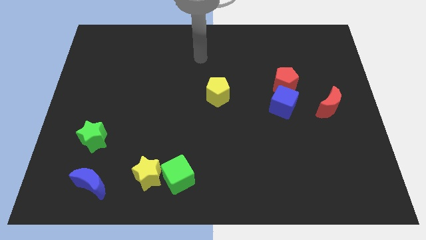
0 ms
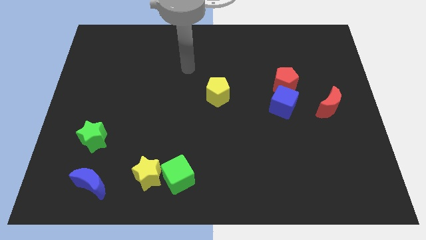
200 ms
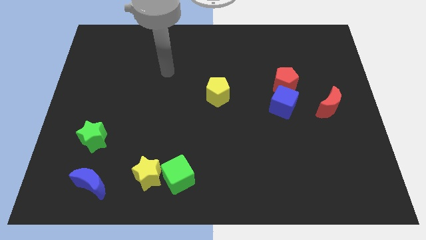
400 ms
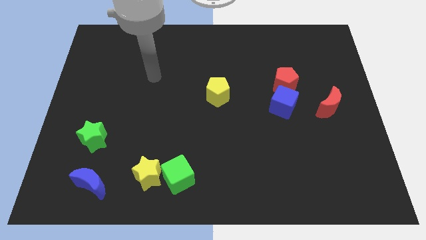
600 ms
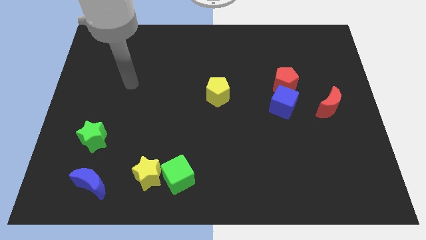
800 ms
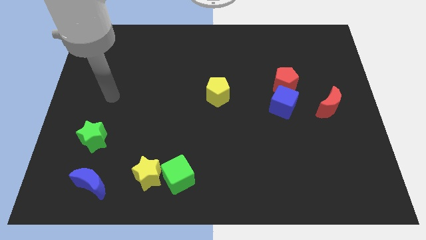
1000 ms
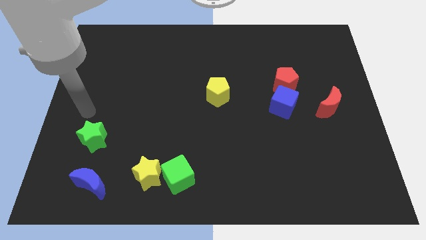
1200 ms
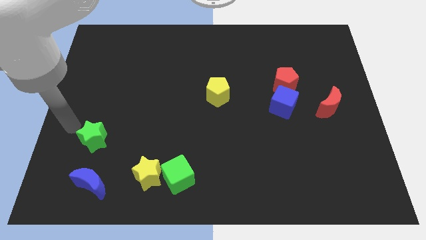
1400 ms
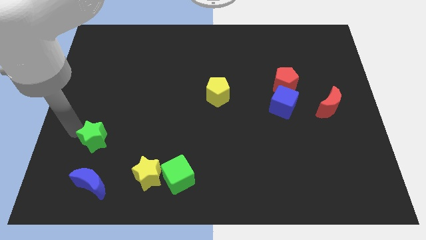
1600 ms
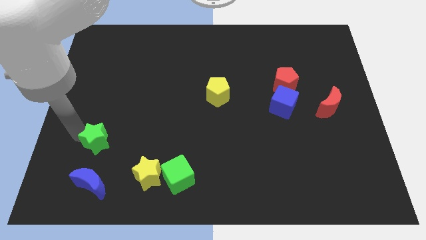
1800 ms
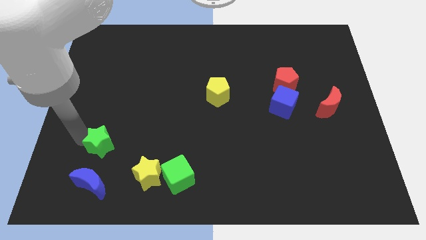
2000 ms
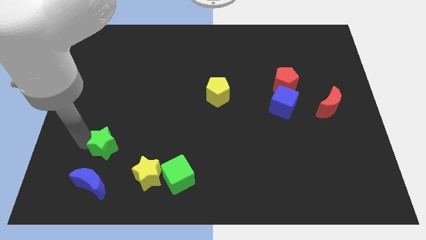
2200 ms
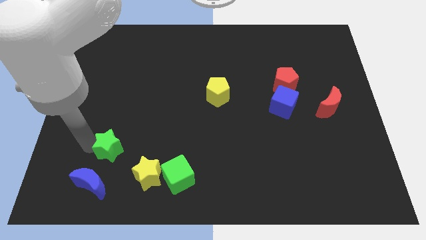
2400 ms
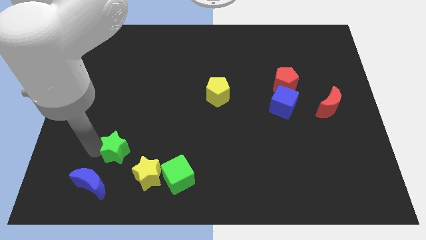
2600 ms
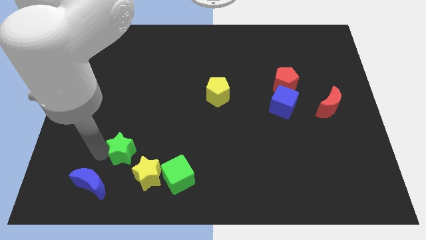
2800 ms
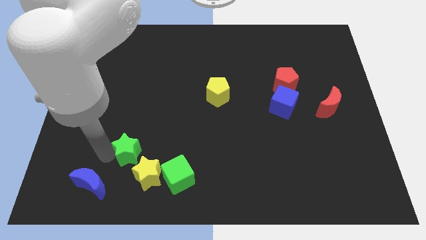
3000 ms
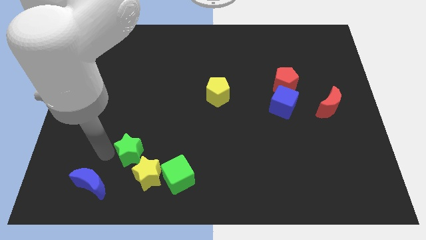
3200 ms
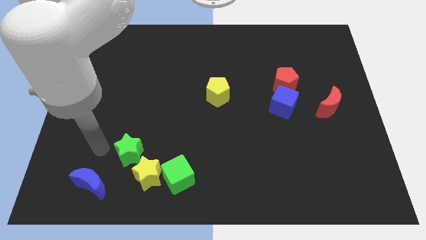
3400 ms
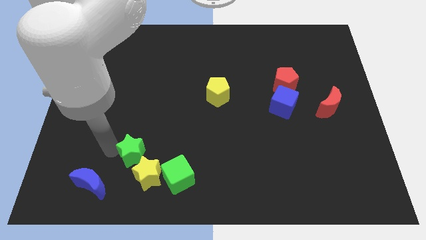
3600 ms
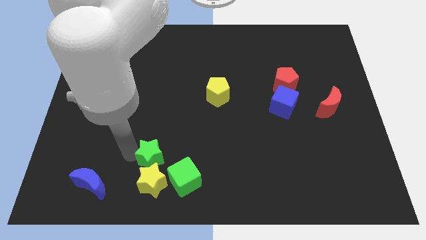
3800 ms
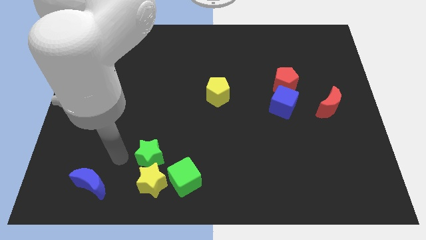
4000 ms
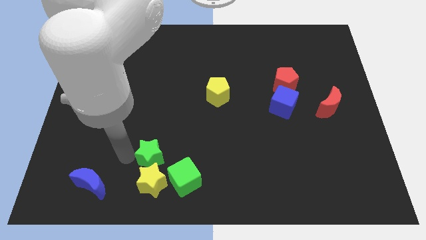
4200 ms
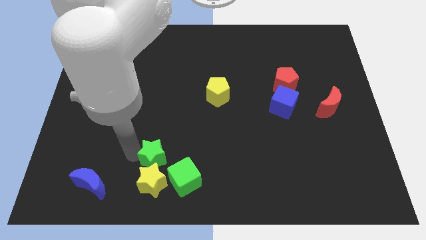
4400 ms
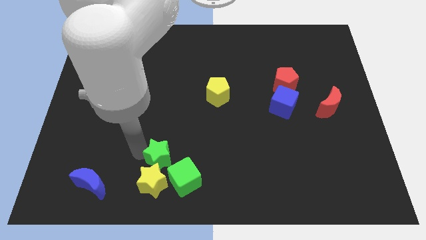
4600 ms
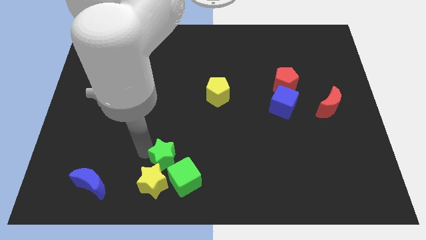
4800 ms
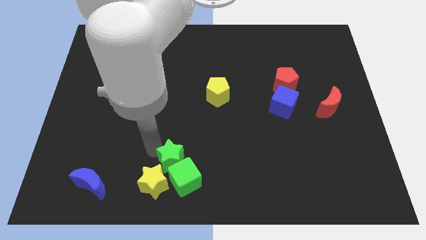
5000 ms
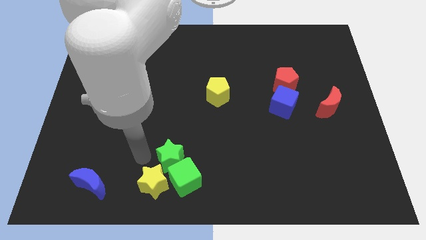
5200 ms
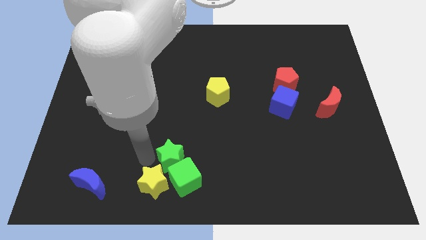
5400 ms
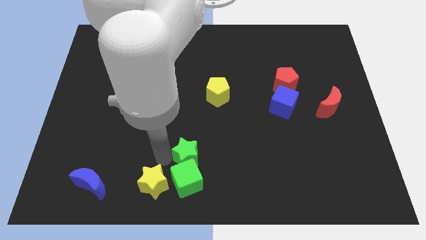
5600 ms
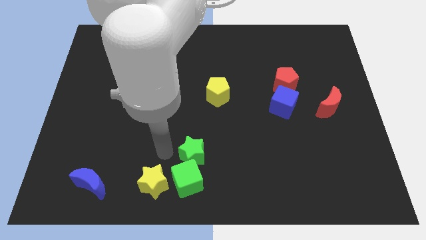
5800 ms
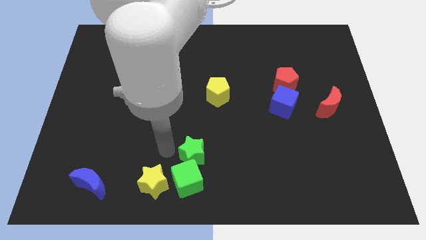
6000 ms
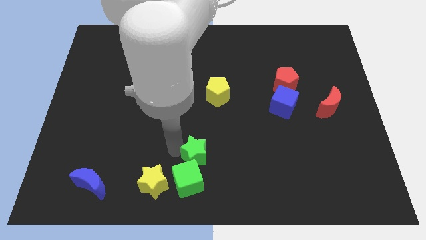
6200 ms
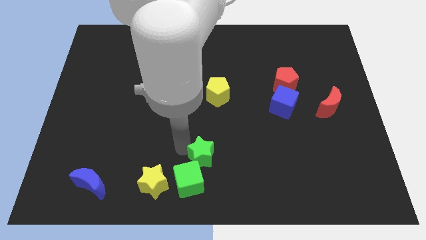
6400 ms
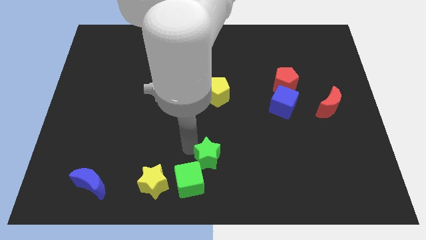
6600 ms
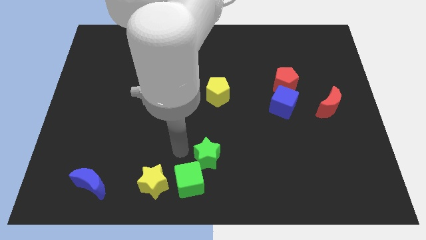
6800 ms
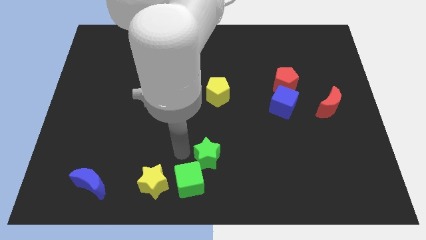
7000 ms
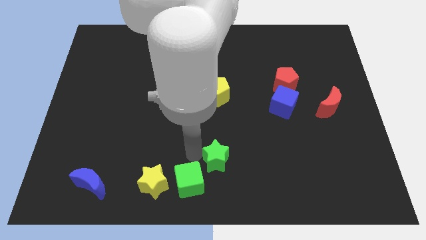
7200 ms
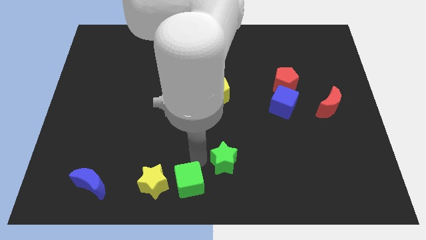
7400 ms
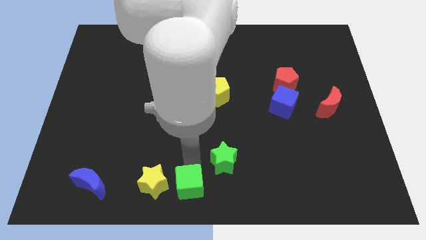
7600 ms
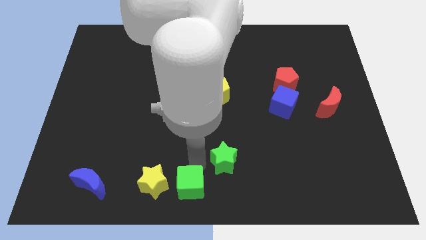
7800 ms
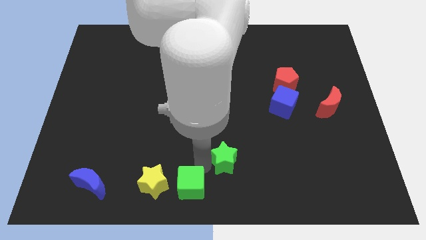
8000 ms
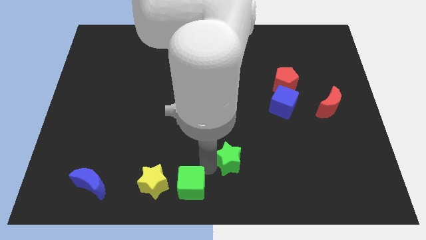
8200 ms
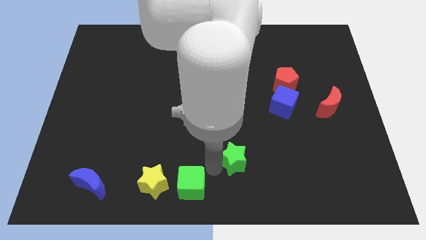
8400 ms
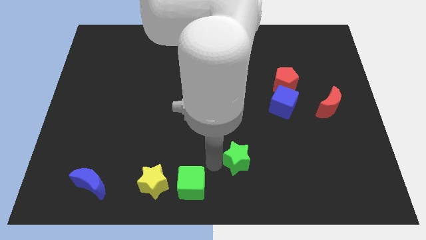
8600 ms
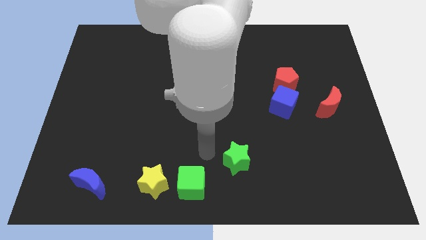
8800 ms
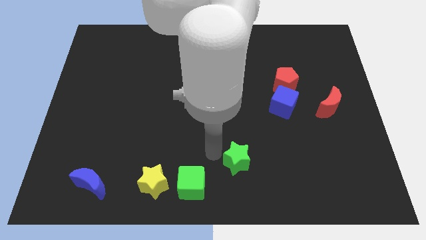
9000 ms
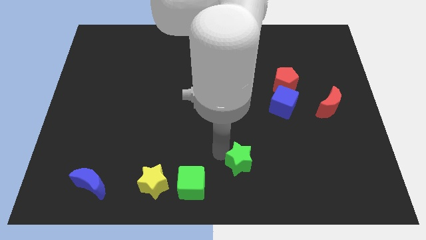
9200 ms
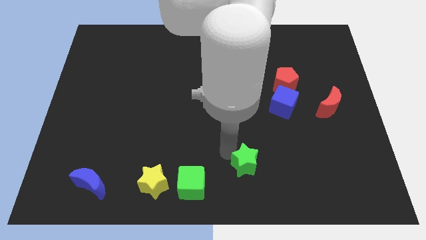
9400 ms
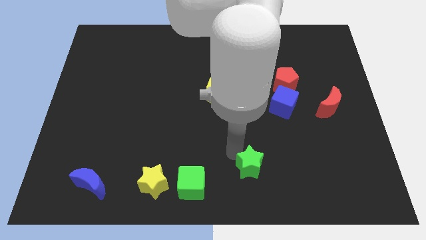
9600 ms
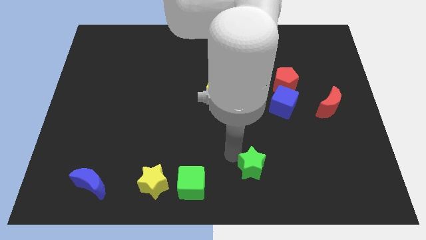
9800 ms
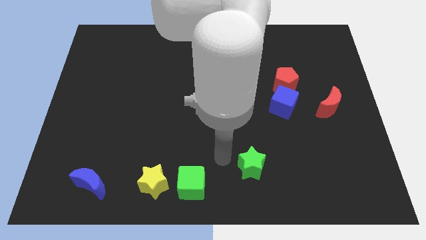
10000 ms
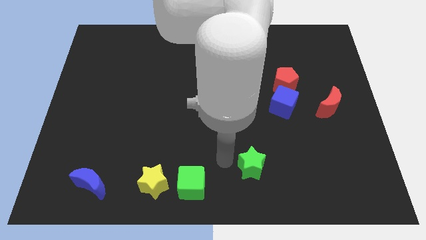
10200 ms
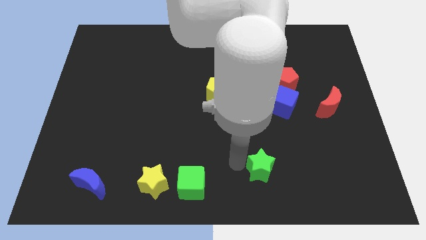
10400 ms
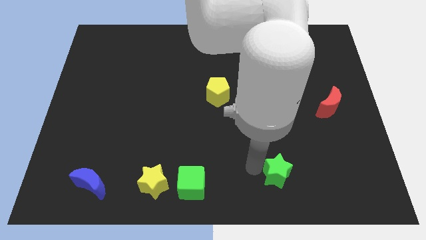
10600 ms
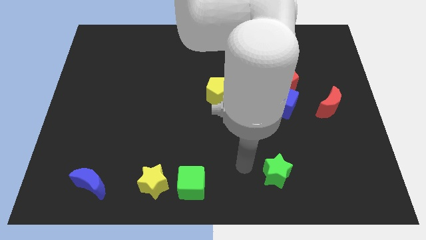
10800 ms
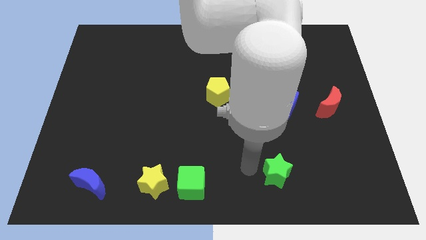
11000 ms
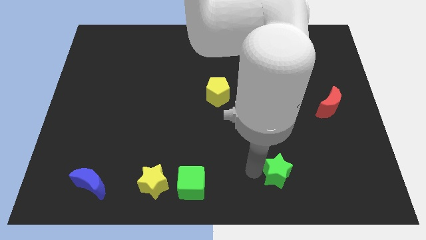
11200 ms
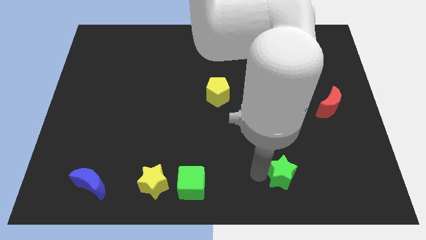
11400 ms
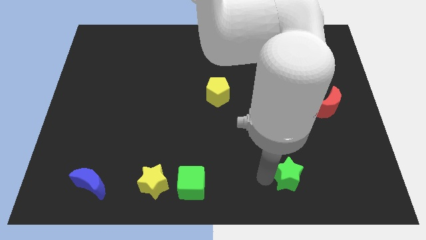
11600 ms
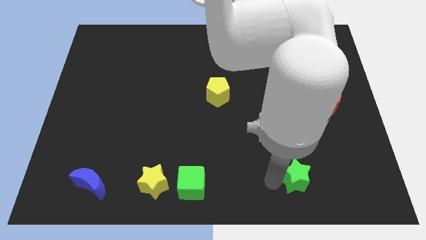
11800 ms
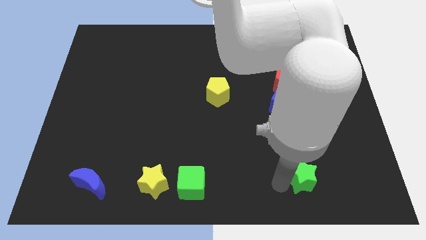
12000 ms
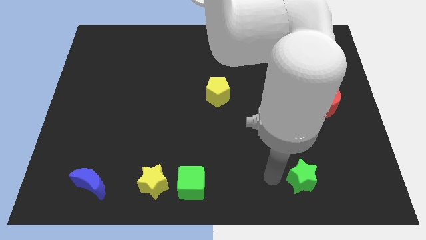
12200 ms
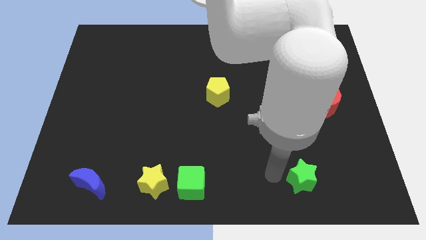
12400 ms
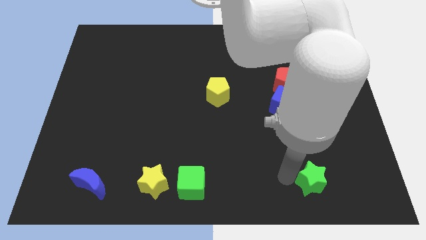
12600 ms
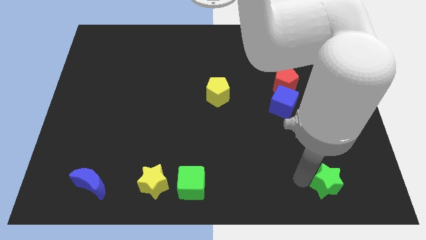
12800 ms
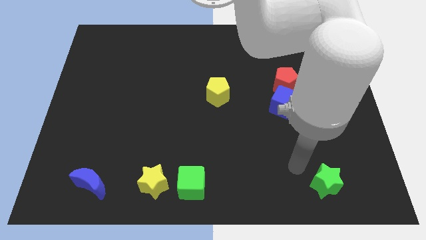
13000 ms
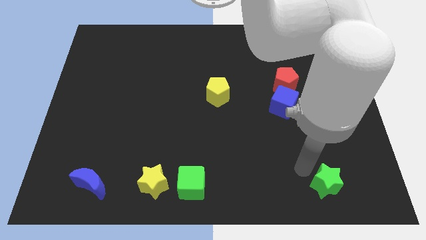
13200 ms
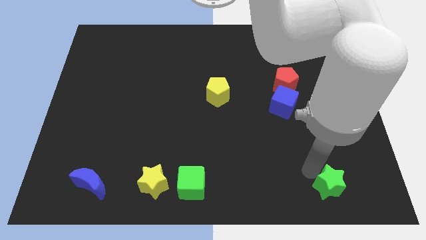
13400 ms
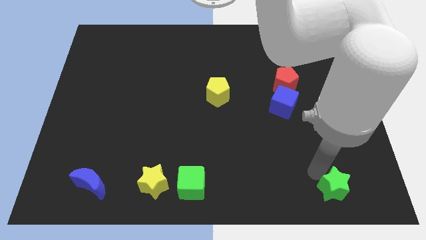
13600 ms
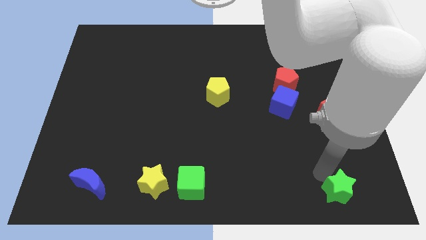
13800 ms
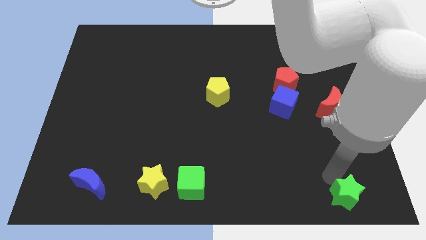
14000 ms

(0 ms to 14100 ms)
push the green star to the bottom right of the board

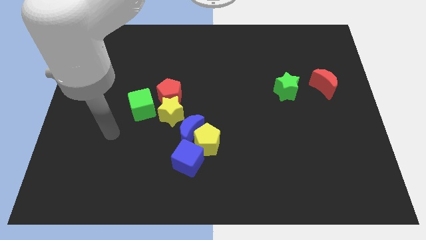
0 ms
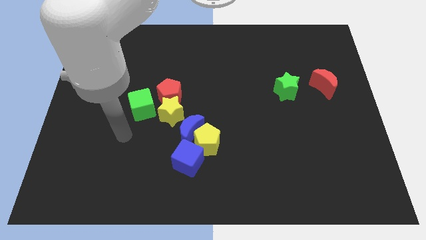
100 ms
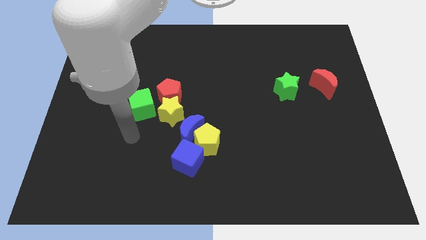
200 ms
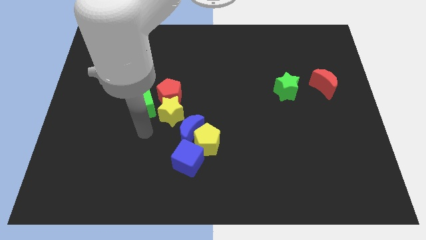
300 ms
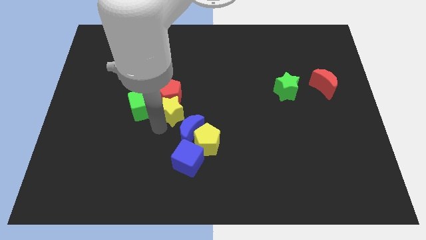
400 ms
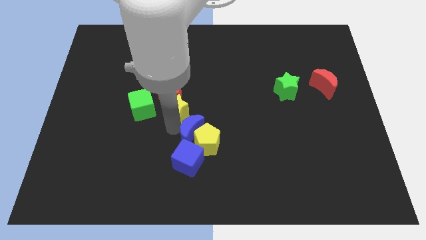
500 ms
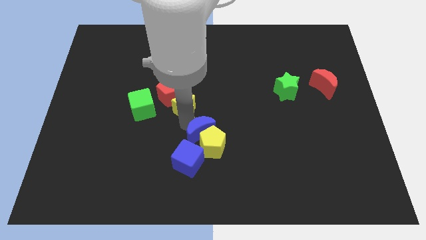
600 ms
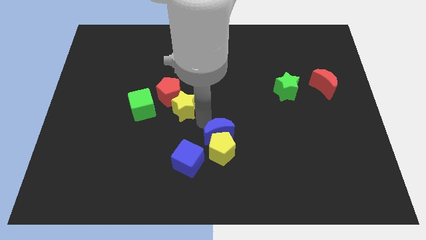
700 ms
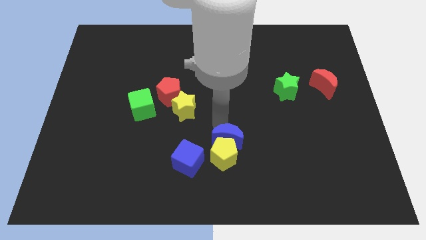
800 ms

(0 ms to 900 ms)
push the yellow pentagon to the bottom
